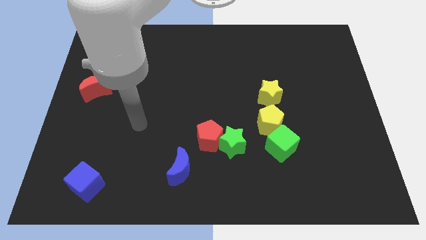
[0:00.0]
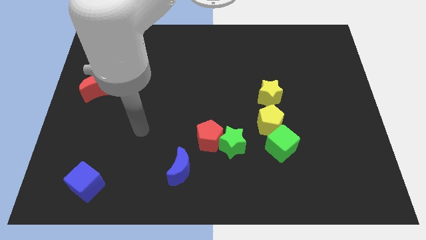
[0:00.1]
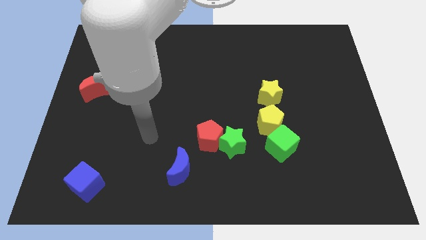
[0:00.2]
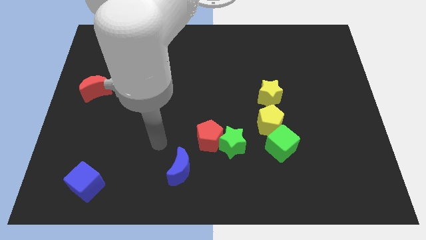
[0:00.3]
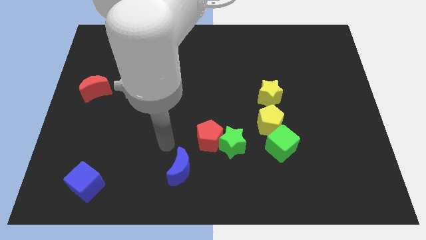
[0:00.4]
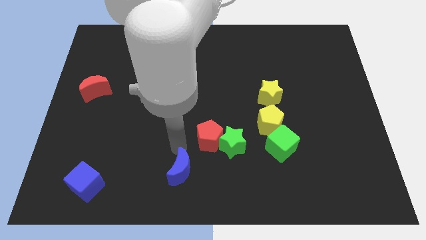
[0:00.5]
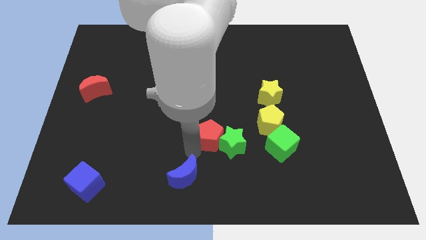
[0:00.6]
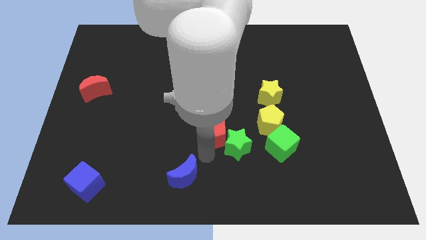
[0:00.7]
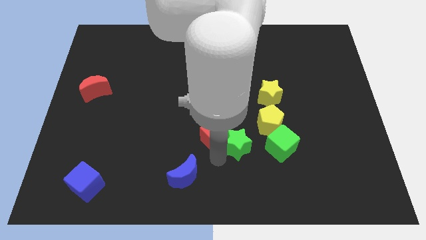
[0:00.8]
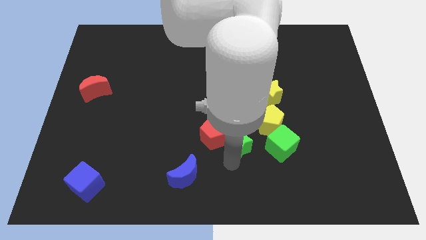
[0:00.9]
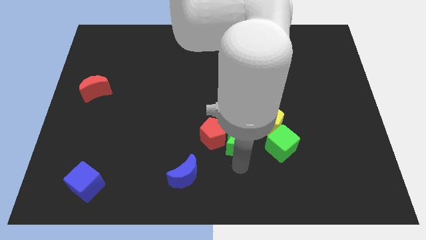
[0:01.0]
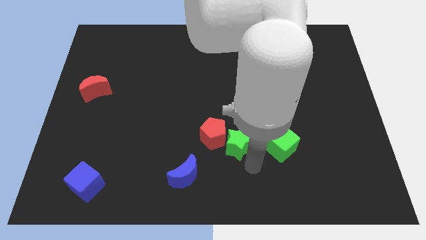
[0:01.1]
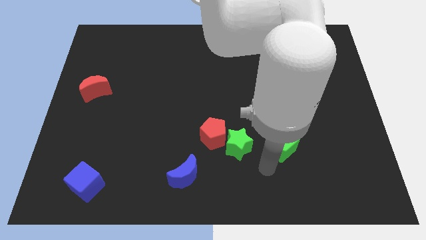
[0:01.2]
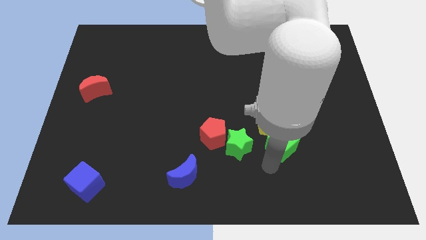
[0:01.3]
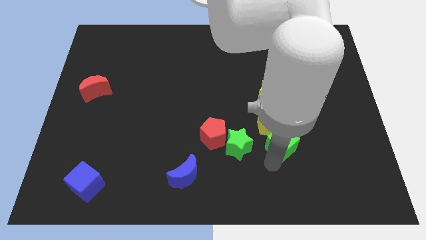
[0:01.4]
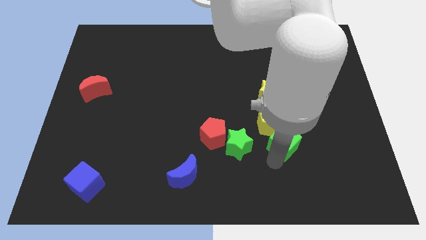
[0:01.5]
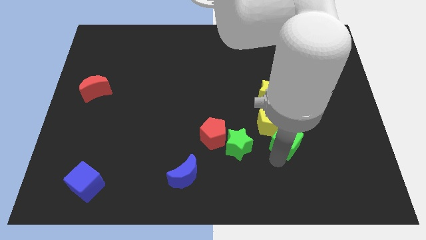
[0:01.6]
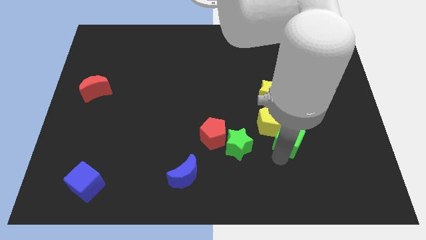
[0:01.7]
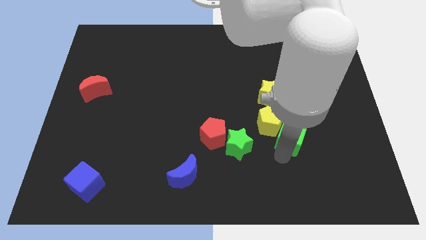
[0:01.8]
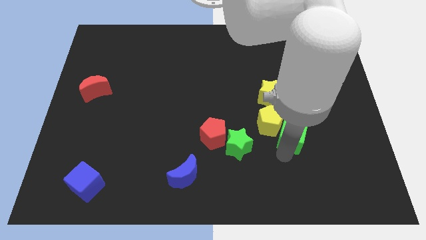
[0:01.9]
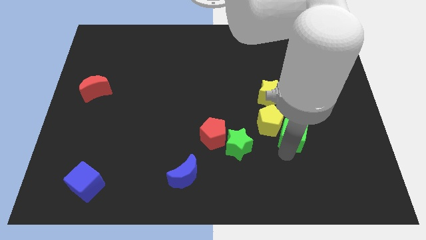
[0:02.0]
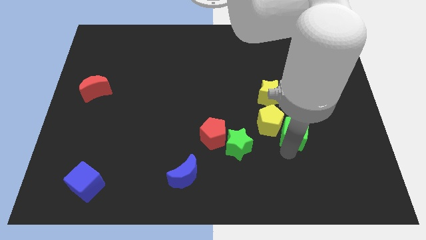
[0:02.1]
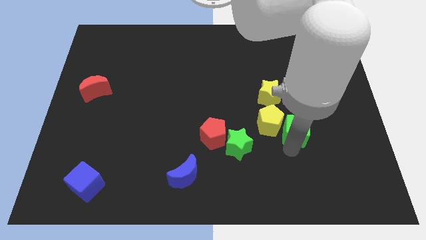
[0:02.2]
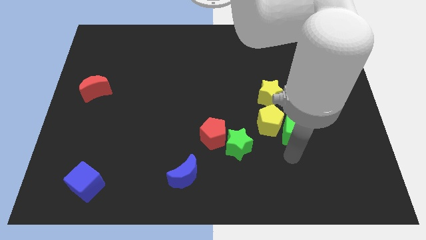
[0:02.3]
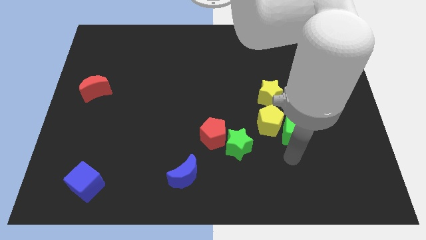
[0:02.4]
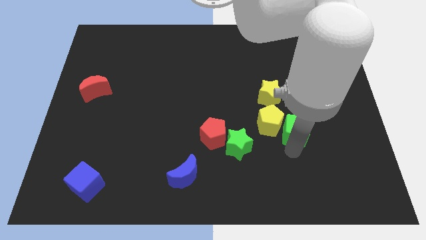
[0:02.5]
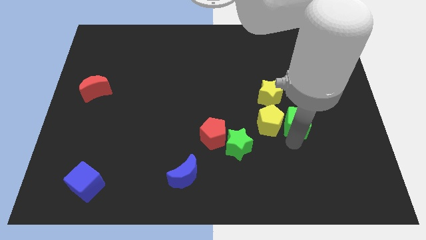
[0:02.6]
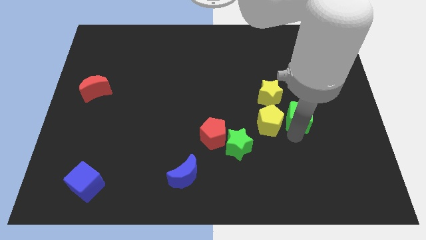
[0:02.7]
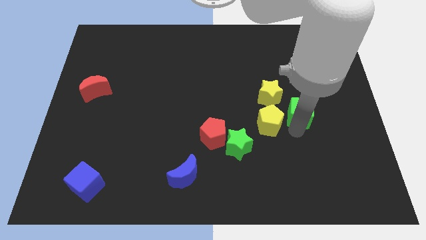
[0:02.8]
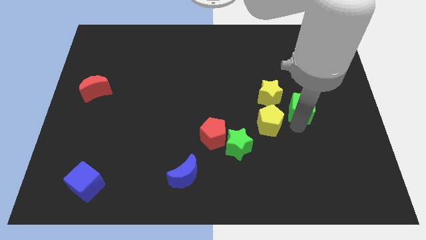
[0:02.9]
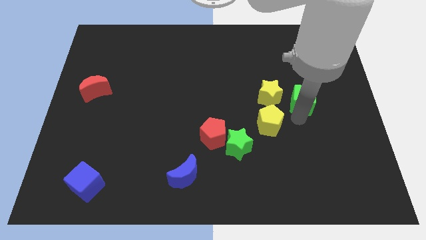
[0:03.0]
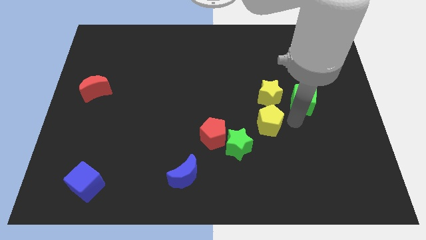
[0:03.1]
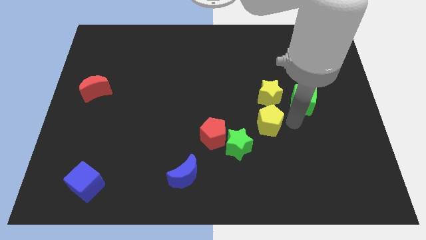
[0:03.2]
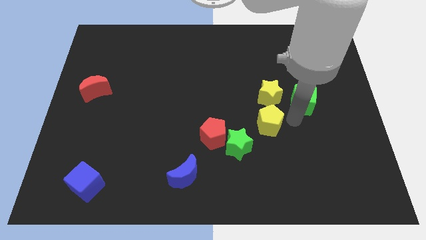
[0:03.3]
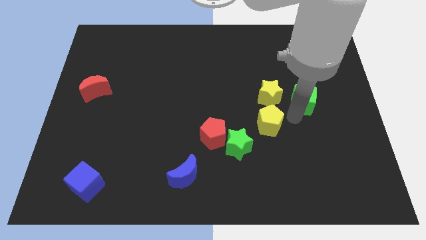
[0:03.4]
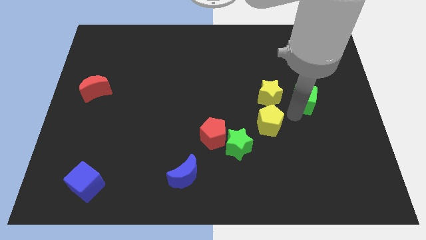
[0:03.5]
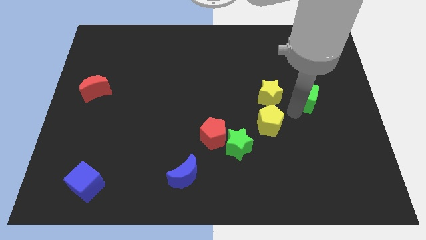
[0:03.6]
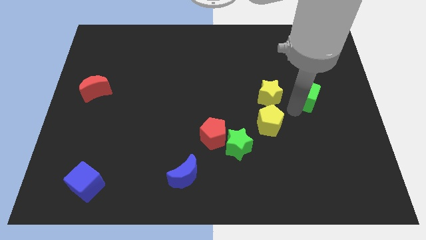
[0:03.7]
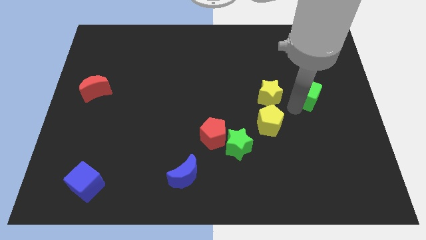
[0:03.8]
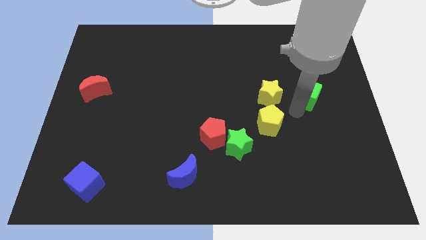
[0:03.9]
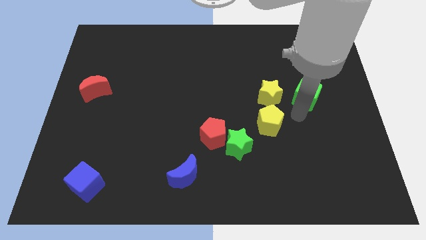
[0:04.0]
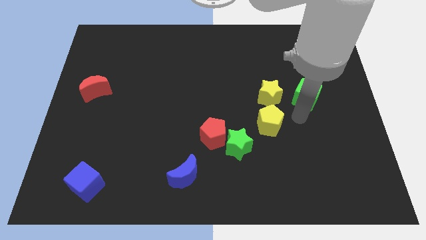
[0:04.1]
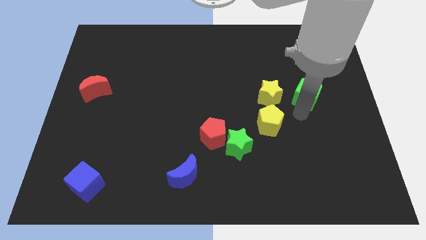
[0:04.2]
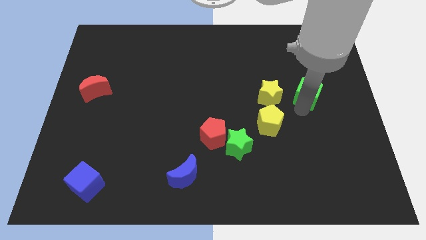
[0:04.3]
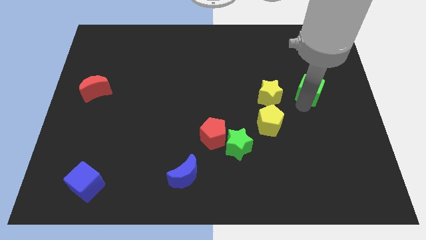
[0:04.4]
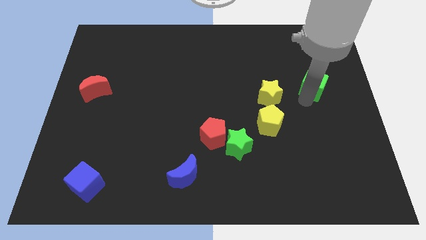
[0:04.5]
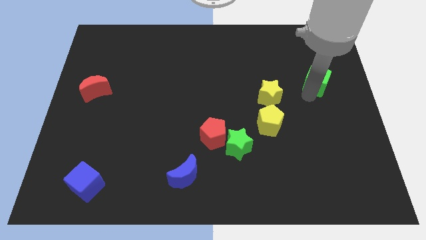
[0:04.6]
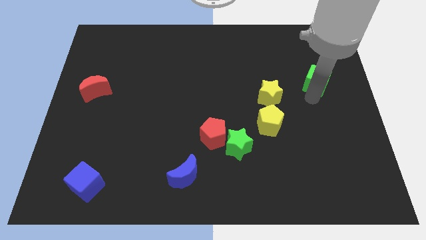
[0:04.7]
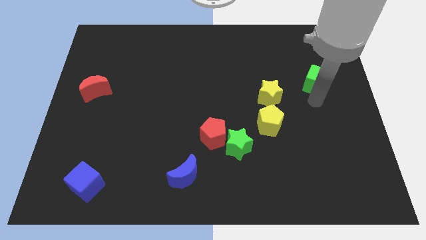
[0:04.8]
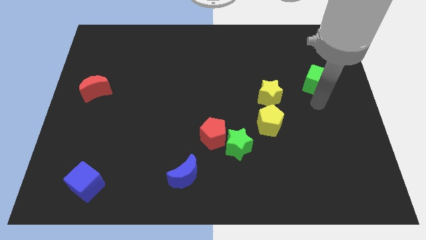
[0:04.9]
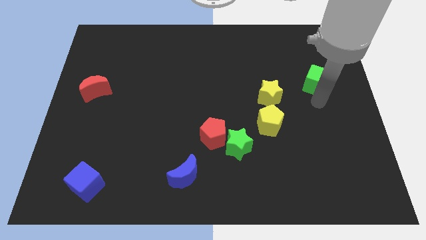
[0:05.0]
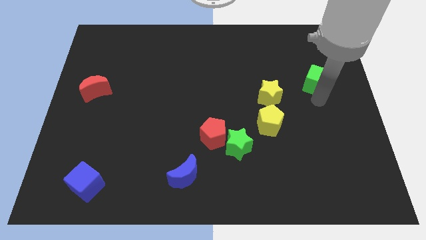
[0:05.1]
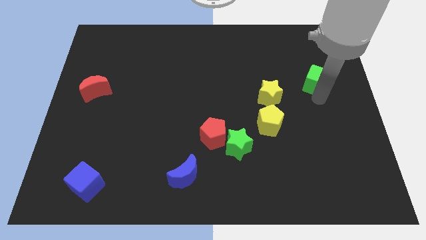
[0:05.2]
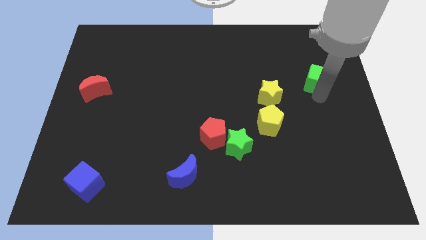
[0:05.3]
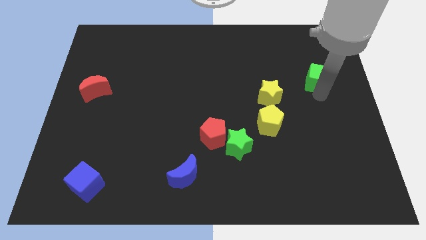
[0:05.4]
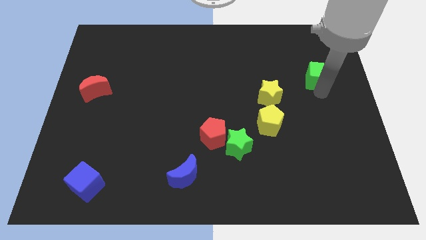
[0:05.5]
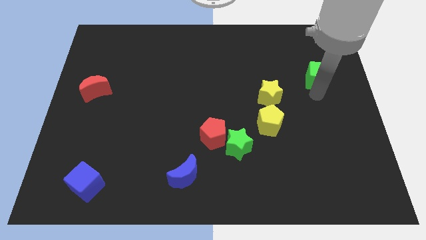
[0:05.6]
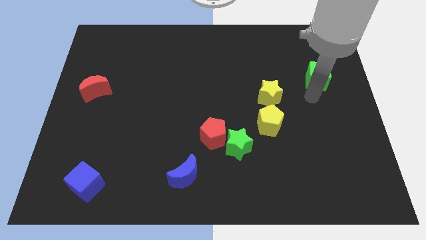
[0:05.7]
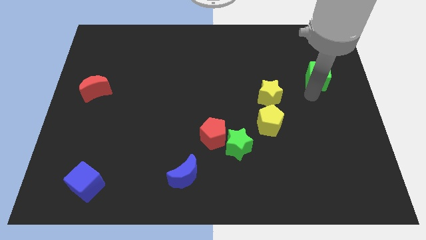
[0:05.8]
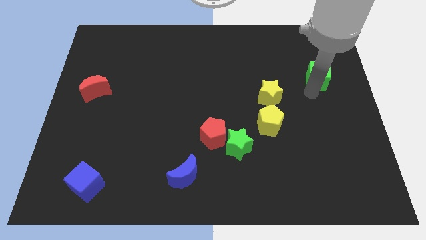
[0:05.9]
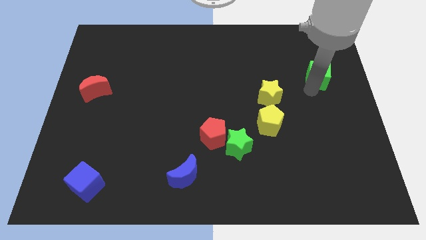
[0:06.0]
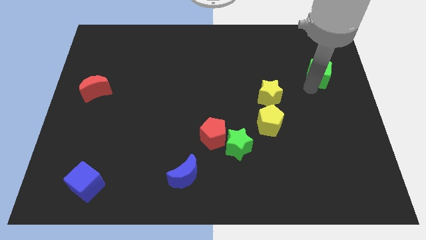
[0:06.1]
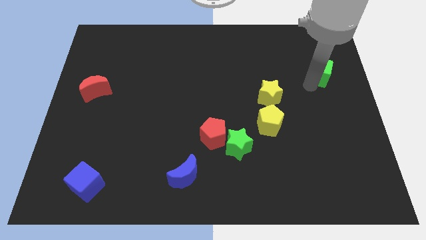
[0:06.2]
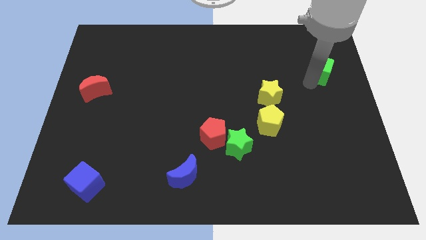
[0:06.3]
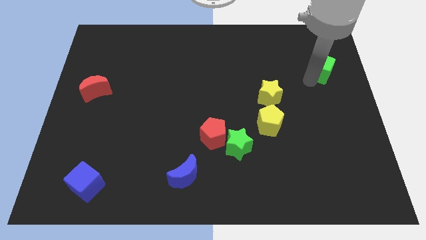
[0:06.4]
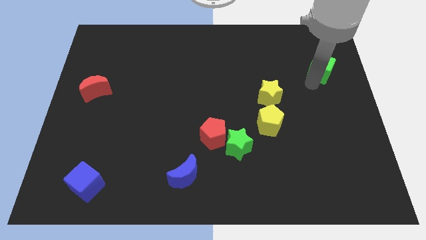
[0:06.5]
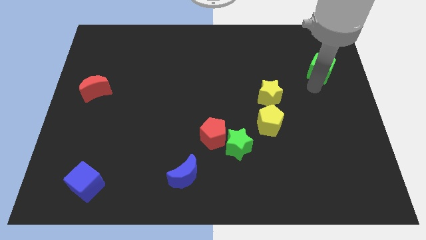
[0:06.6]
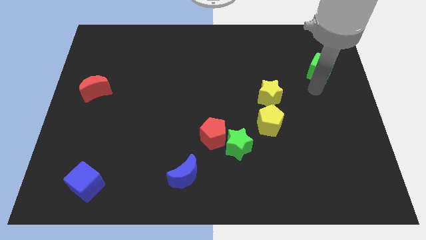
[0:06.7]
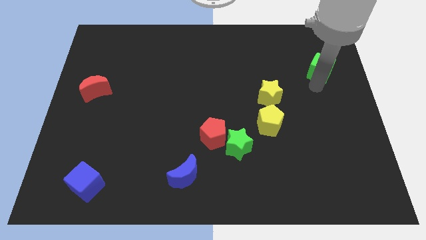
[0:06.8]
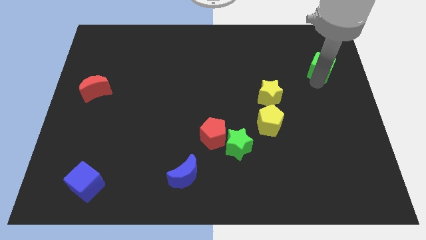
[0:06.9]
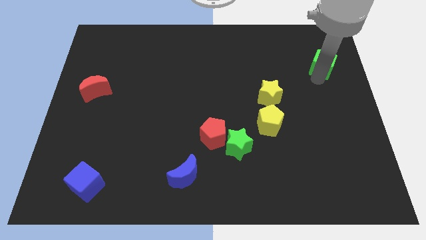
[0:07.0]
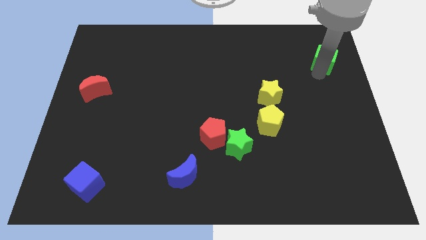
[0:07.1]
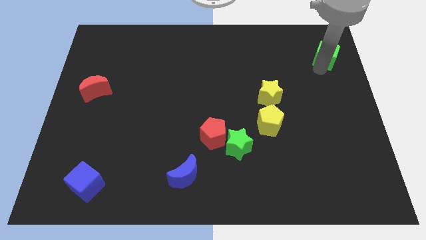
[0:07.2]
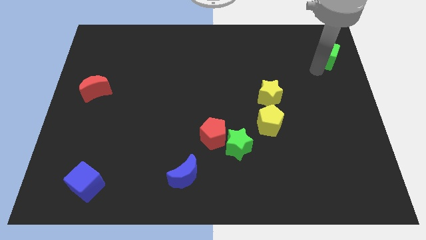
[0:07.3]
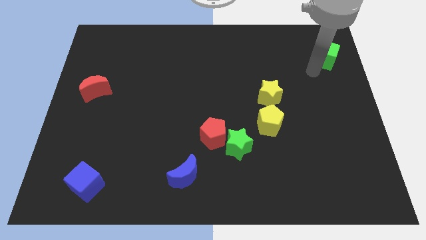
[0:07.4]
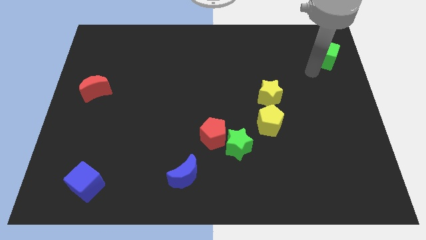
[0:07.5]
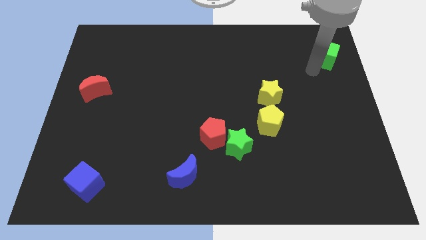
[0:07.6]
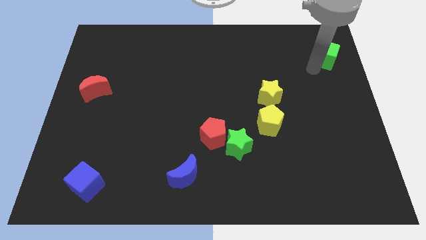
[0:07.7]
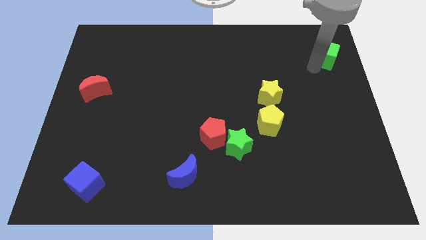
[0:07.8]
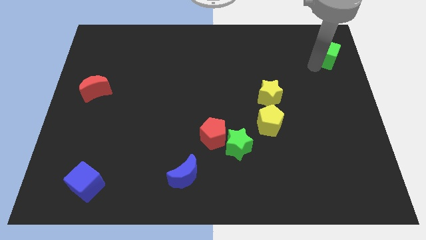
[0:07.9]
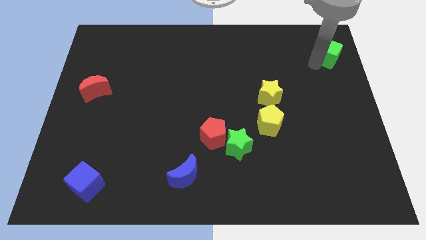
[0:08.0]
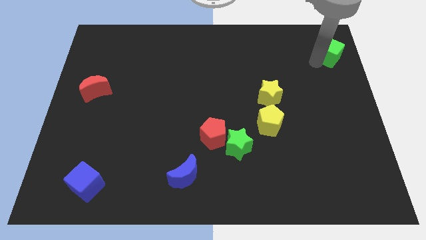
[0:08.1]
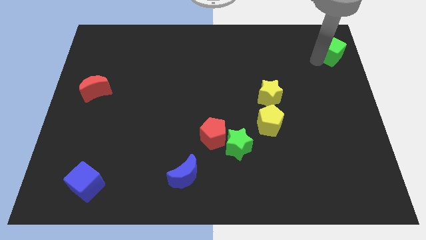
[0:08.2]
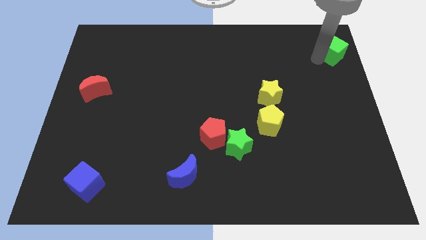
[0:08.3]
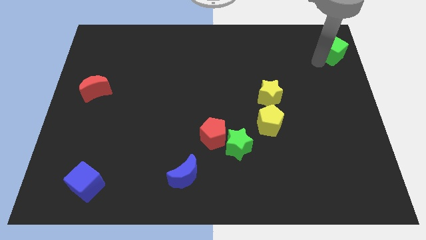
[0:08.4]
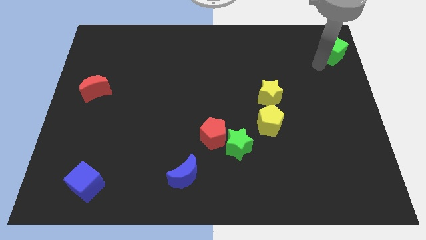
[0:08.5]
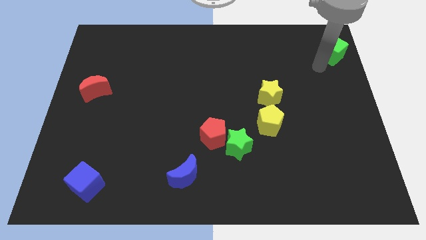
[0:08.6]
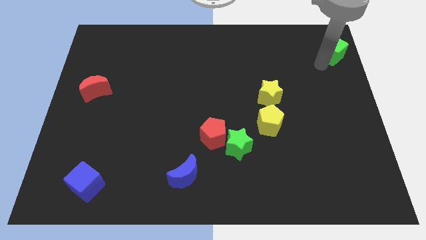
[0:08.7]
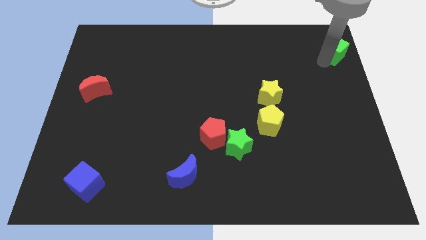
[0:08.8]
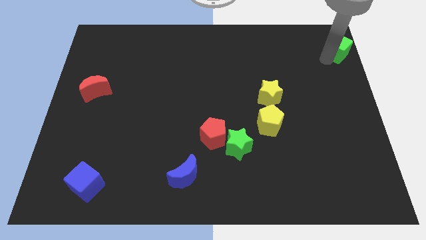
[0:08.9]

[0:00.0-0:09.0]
put the green cube to the top right
